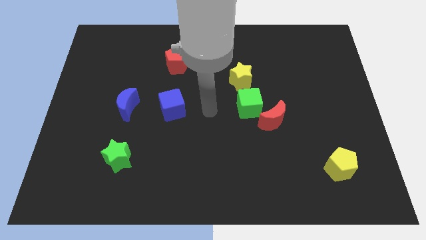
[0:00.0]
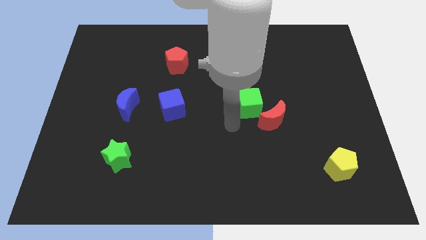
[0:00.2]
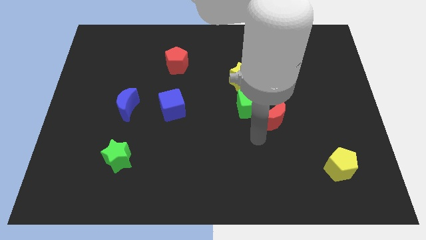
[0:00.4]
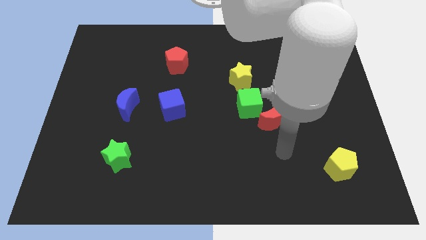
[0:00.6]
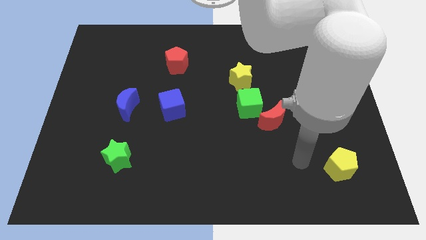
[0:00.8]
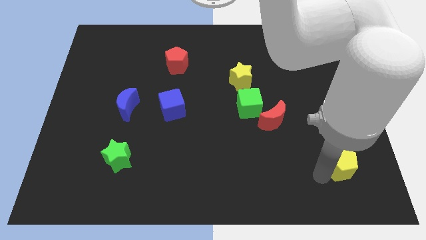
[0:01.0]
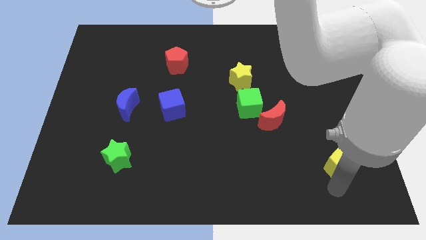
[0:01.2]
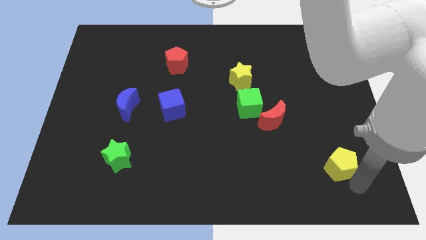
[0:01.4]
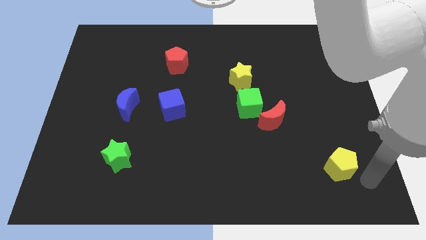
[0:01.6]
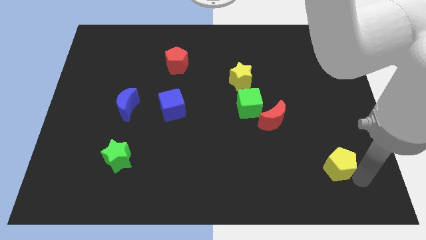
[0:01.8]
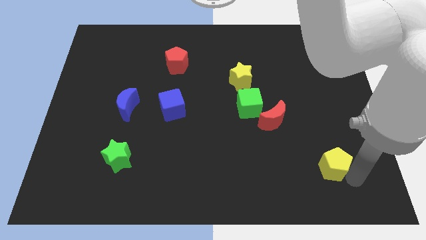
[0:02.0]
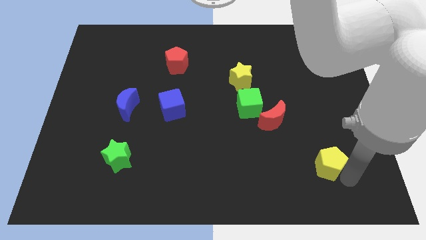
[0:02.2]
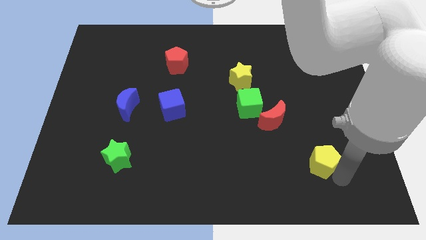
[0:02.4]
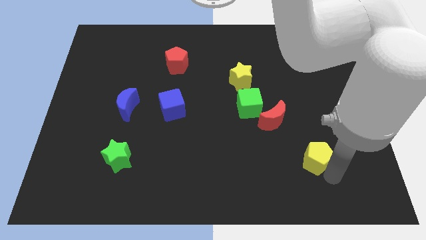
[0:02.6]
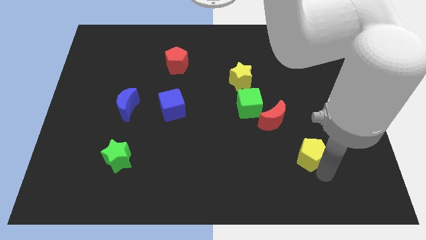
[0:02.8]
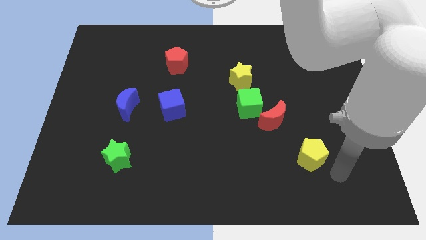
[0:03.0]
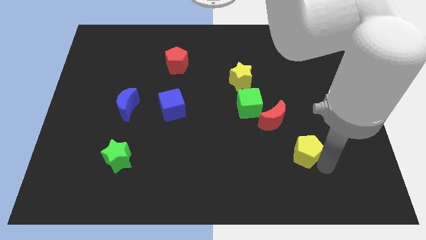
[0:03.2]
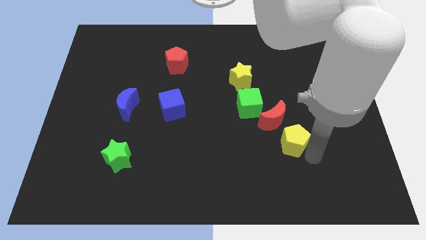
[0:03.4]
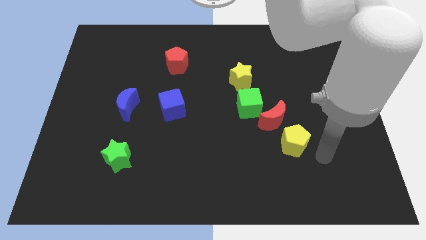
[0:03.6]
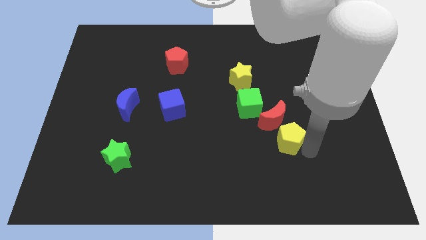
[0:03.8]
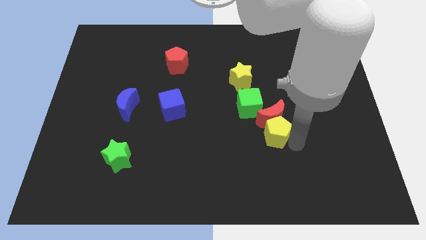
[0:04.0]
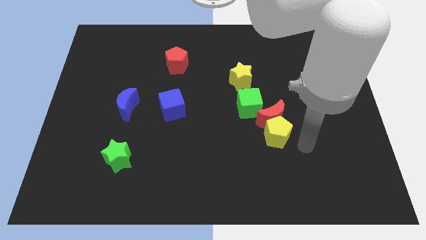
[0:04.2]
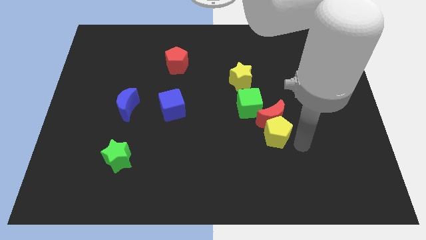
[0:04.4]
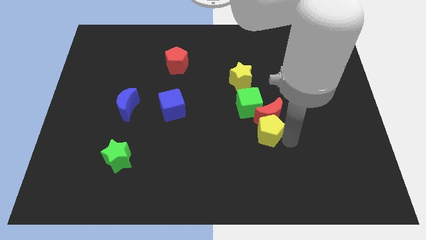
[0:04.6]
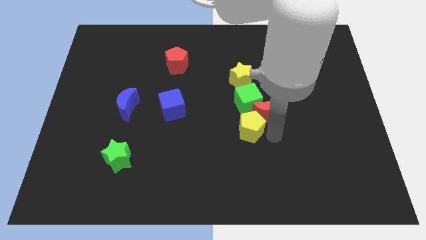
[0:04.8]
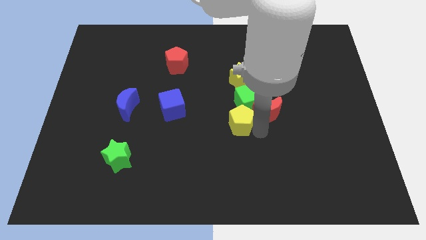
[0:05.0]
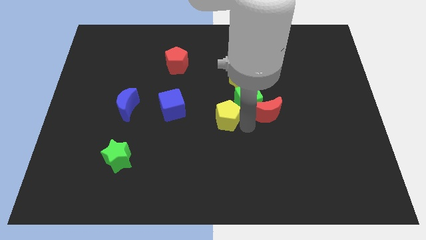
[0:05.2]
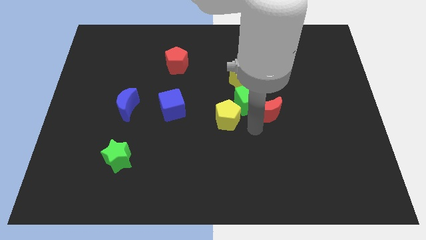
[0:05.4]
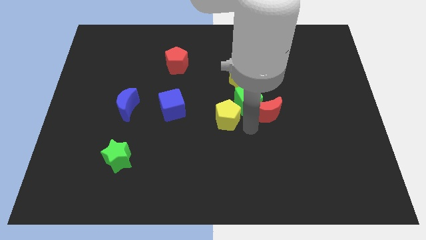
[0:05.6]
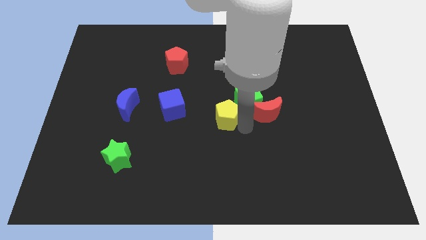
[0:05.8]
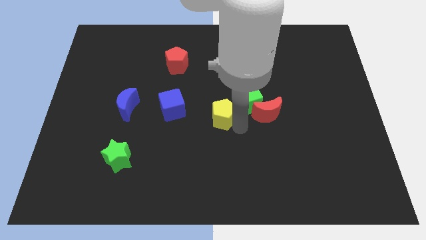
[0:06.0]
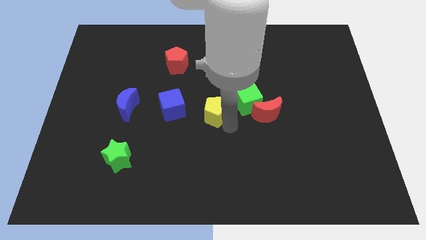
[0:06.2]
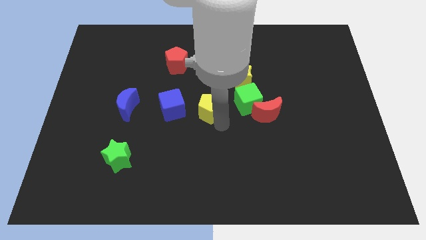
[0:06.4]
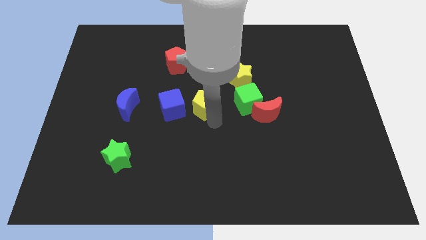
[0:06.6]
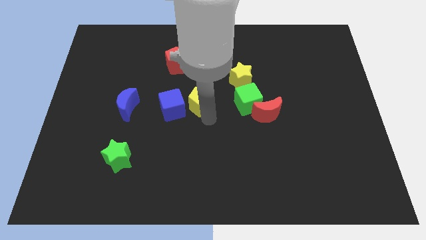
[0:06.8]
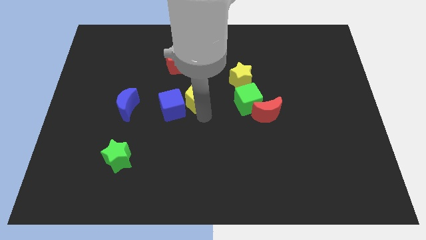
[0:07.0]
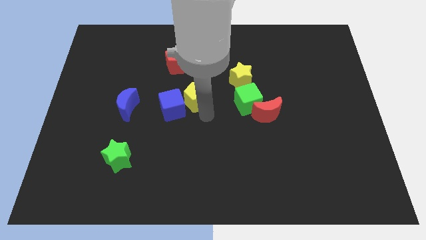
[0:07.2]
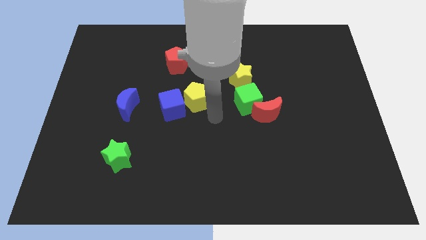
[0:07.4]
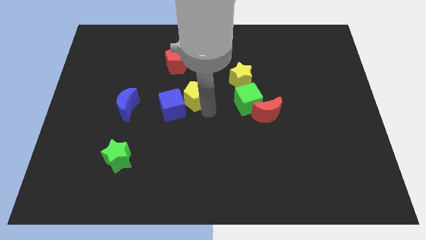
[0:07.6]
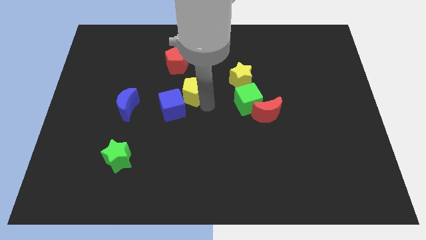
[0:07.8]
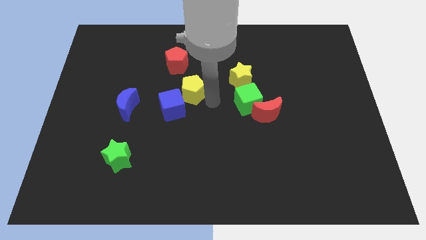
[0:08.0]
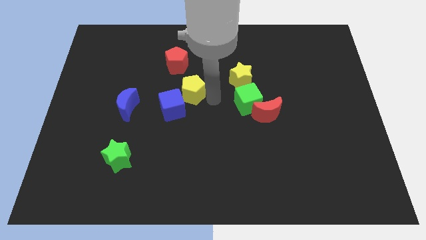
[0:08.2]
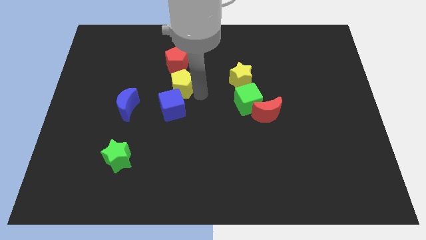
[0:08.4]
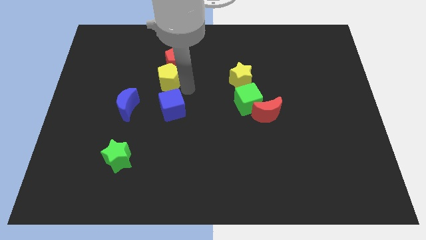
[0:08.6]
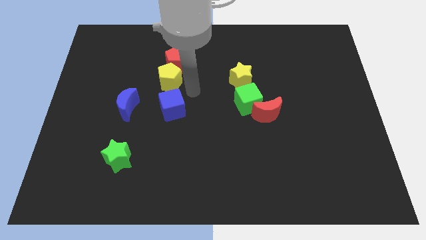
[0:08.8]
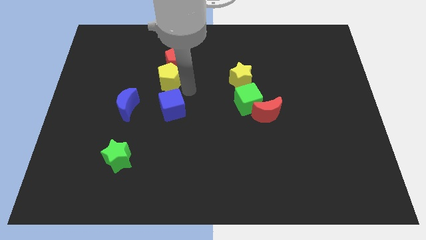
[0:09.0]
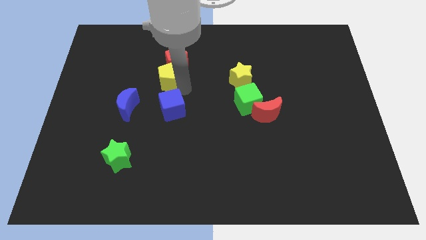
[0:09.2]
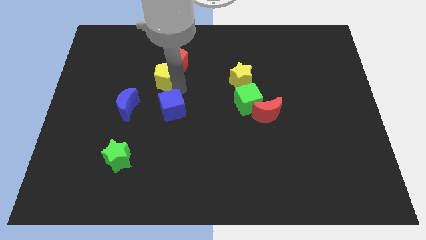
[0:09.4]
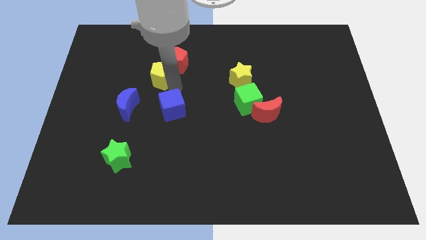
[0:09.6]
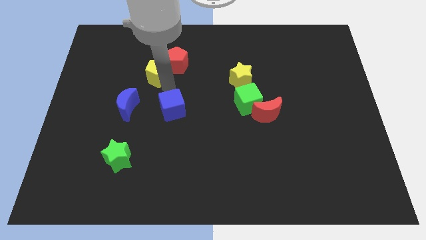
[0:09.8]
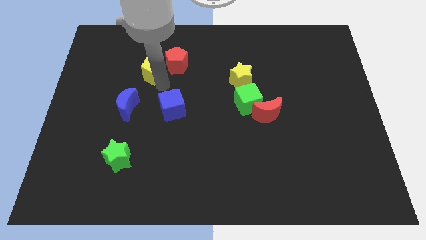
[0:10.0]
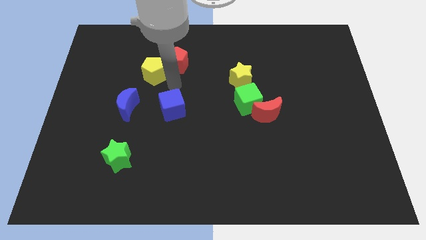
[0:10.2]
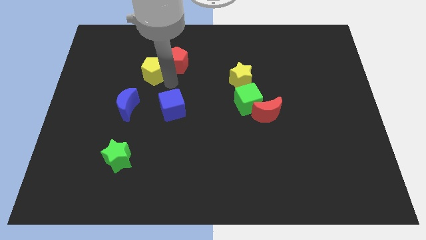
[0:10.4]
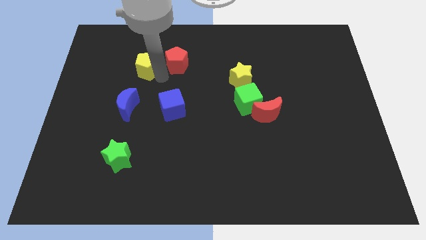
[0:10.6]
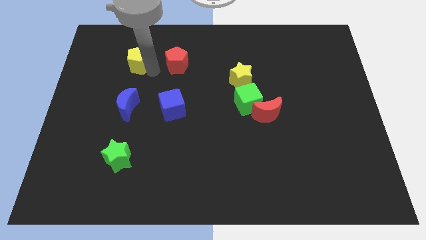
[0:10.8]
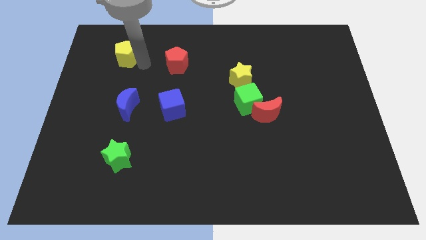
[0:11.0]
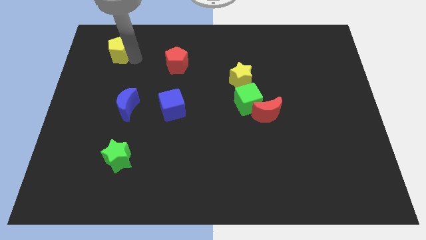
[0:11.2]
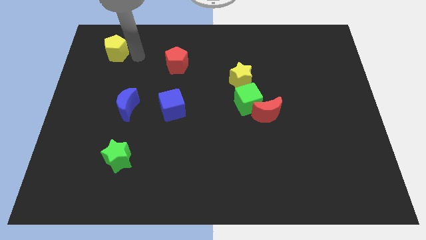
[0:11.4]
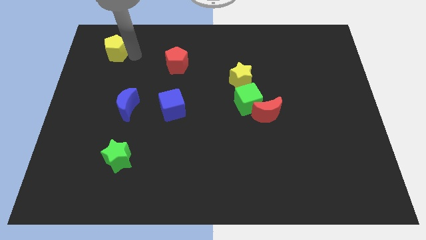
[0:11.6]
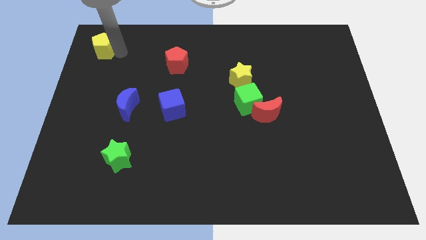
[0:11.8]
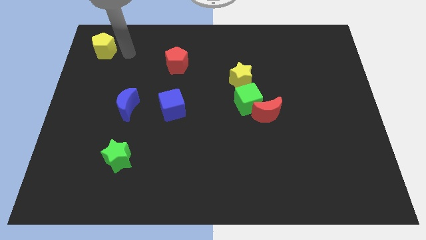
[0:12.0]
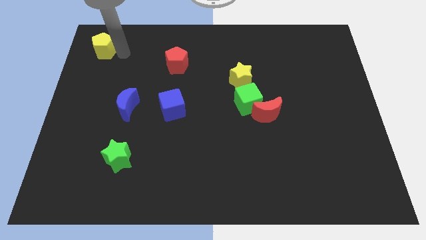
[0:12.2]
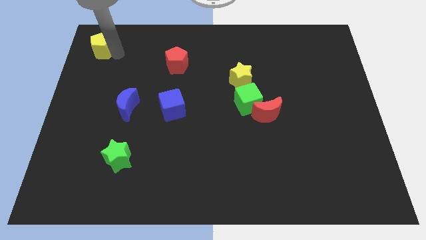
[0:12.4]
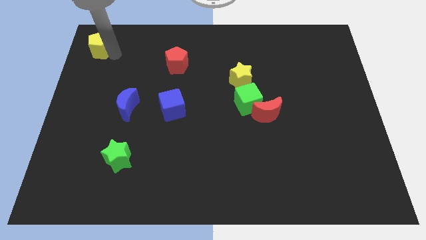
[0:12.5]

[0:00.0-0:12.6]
push the yellow pentagon to the top left of the board
